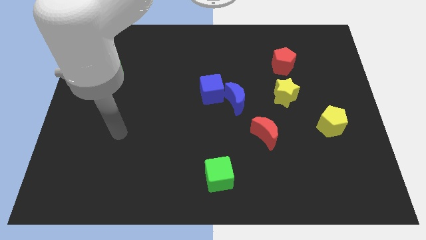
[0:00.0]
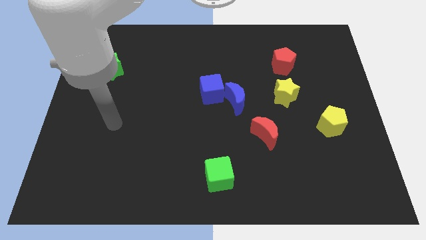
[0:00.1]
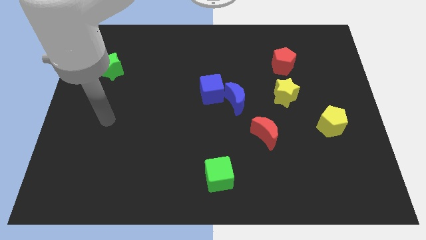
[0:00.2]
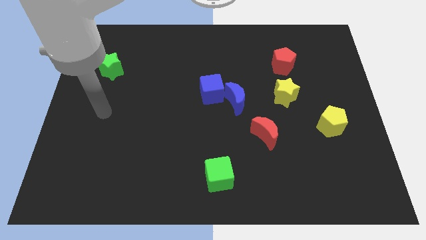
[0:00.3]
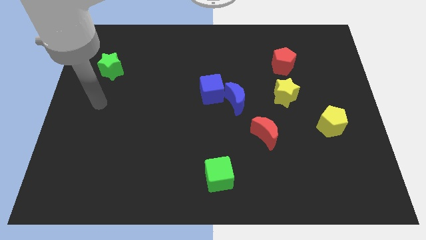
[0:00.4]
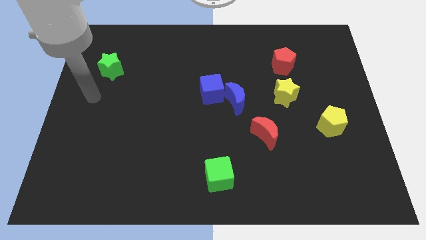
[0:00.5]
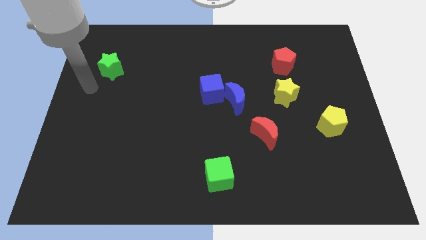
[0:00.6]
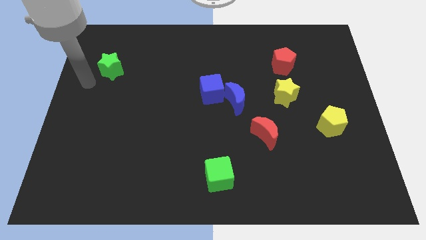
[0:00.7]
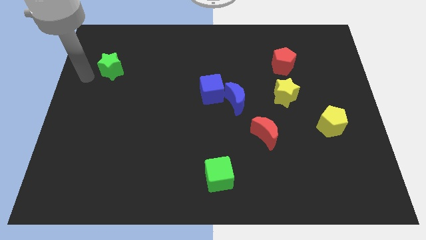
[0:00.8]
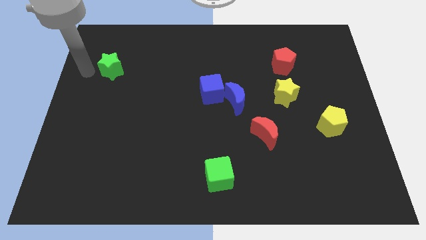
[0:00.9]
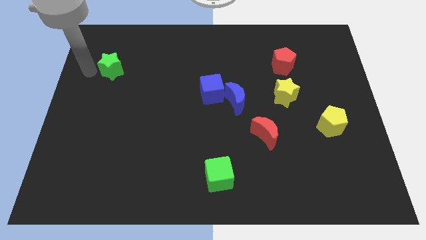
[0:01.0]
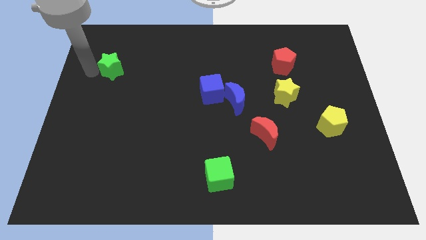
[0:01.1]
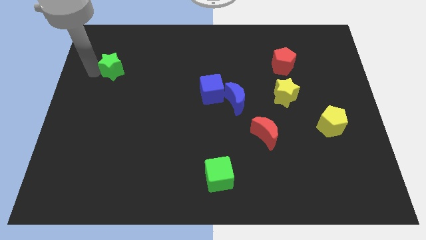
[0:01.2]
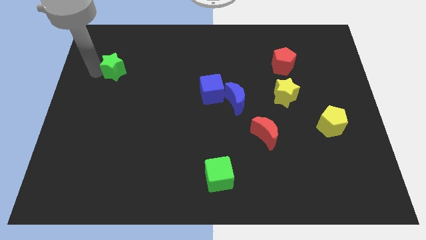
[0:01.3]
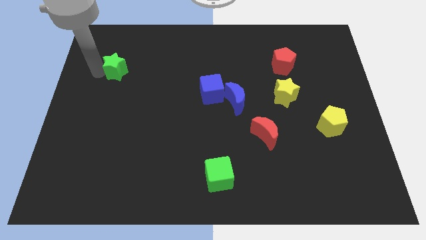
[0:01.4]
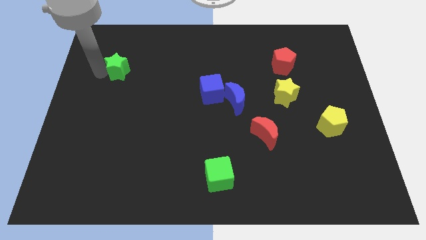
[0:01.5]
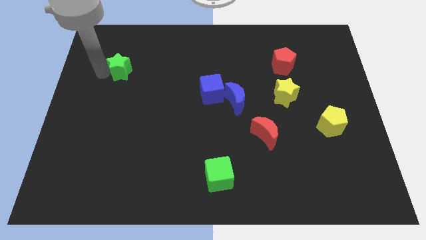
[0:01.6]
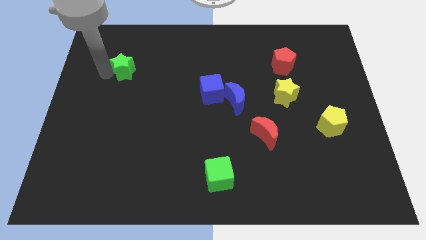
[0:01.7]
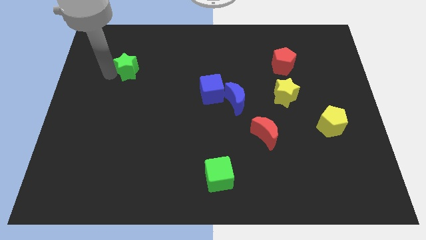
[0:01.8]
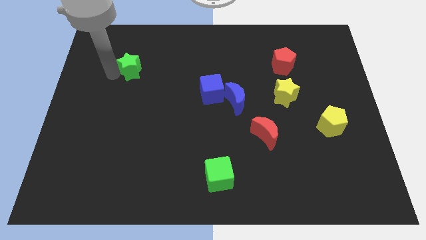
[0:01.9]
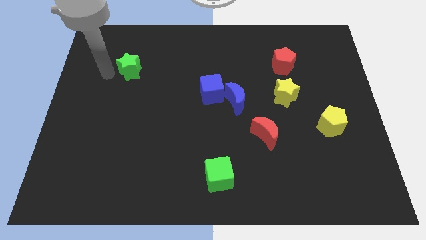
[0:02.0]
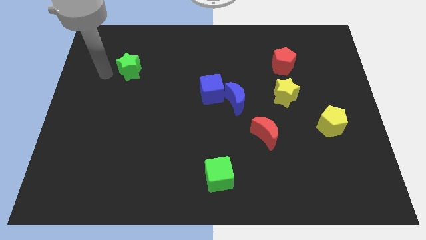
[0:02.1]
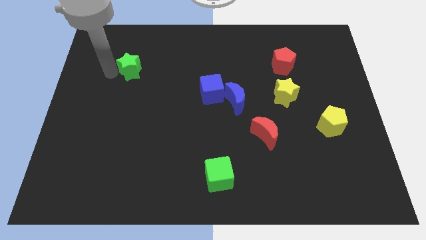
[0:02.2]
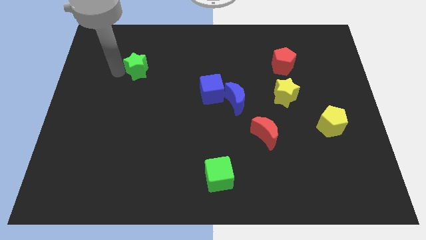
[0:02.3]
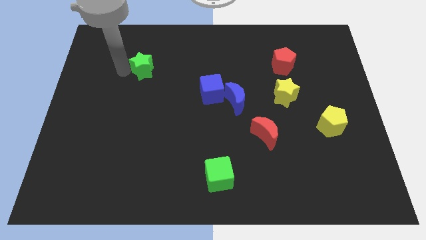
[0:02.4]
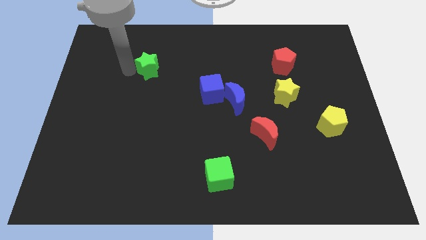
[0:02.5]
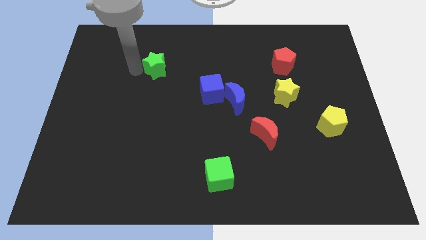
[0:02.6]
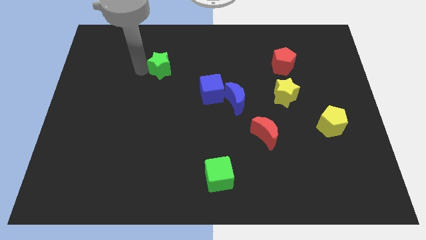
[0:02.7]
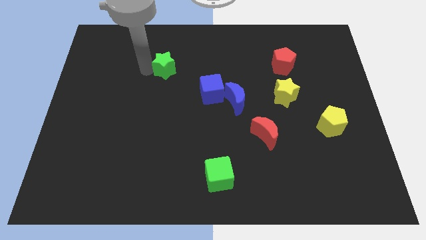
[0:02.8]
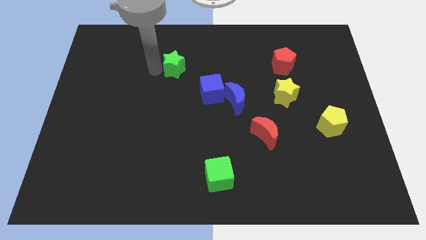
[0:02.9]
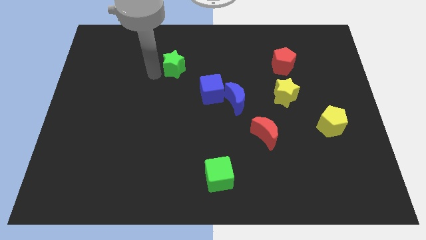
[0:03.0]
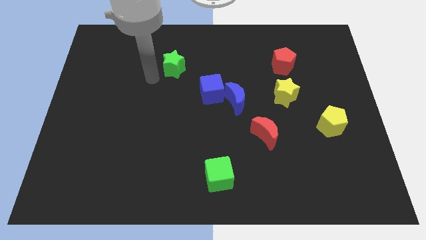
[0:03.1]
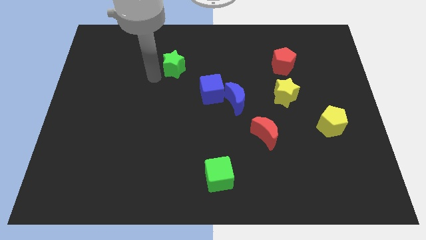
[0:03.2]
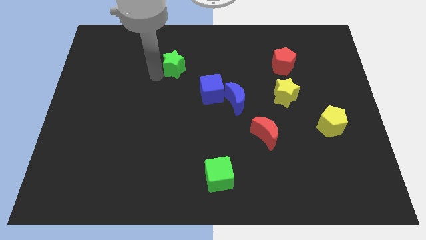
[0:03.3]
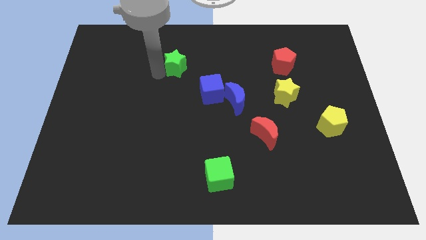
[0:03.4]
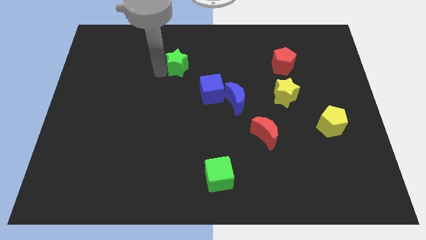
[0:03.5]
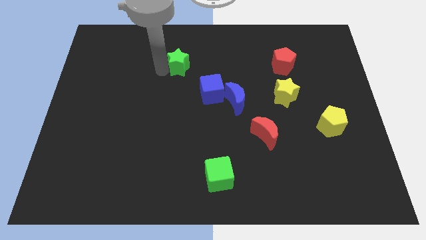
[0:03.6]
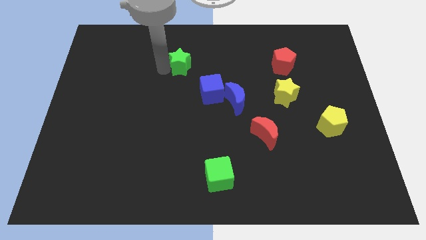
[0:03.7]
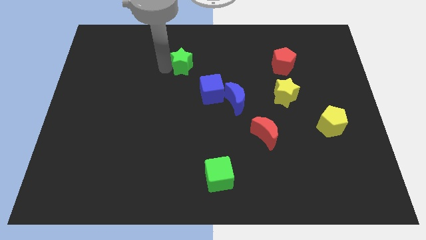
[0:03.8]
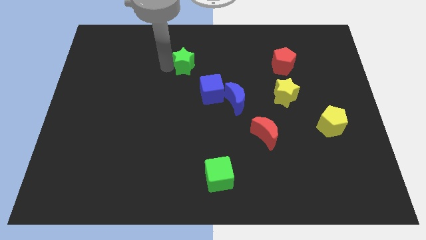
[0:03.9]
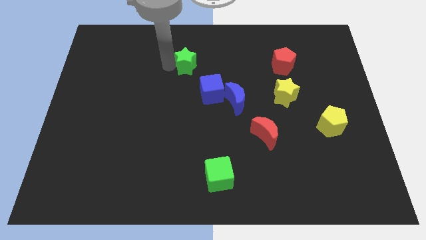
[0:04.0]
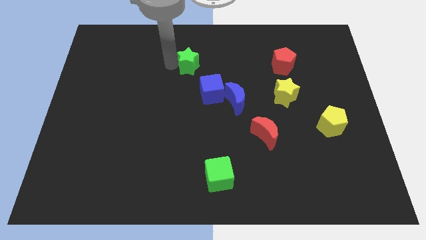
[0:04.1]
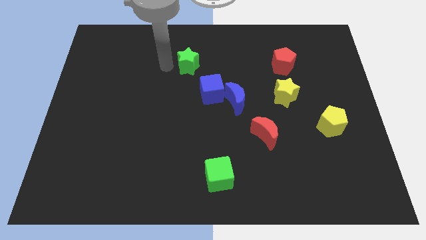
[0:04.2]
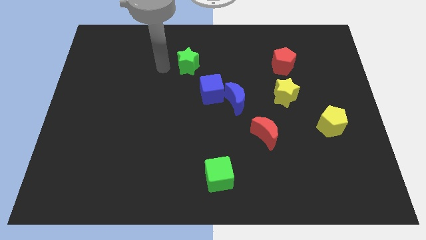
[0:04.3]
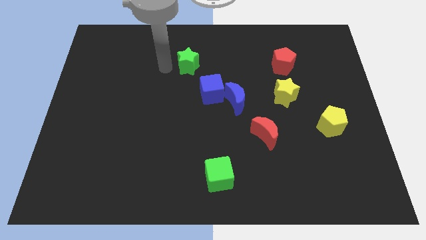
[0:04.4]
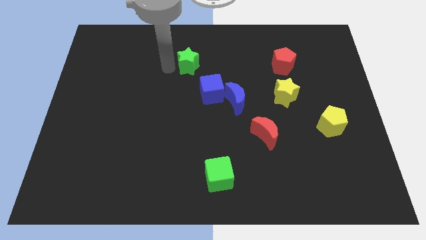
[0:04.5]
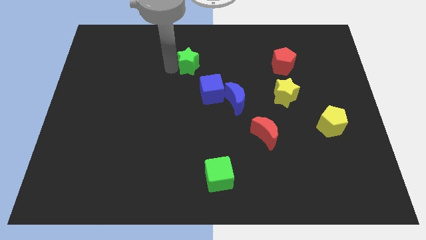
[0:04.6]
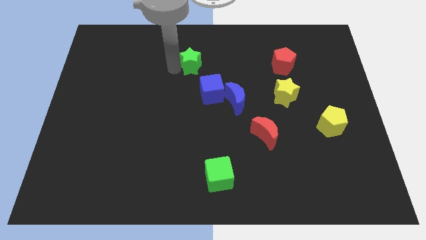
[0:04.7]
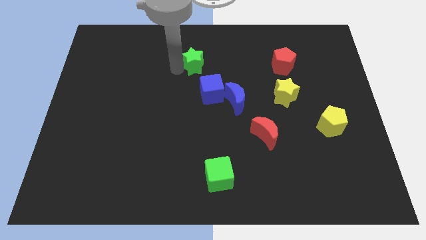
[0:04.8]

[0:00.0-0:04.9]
push the green star above the blue cube

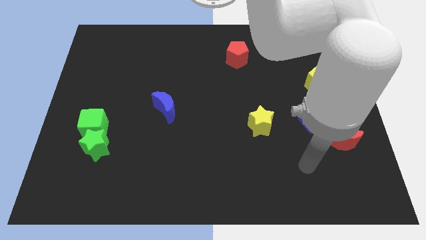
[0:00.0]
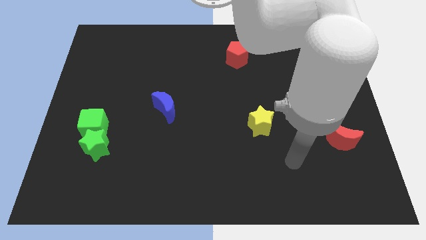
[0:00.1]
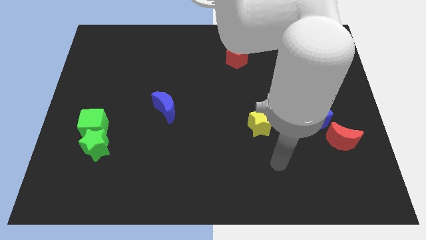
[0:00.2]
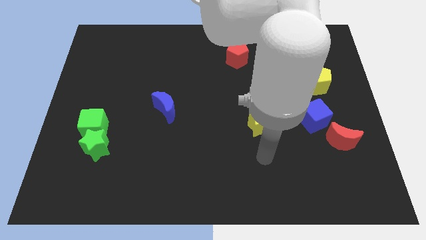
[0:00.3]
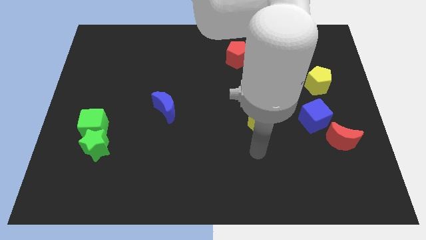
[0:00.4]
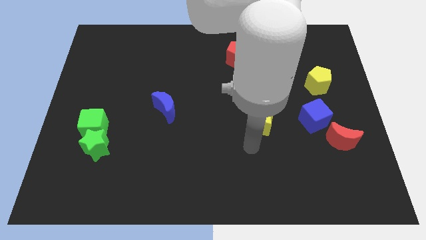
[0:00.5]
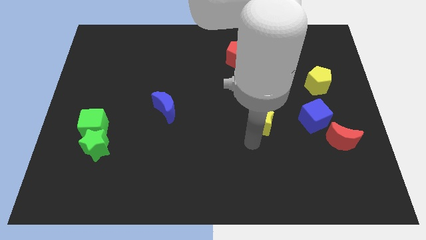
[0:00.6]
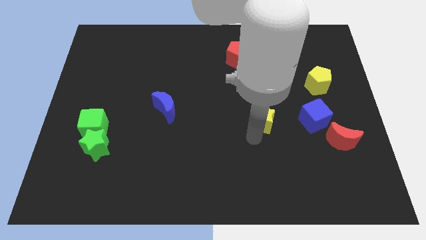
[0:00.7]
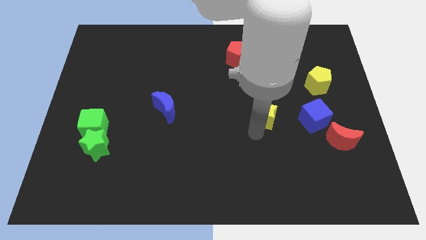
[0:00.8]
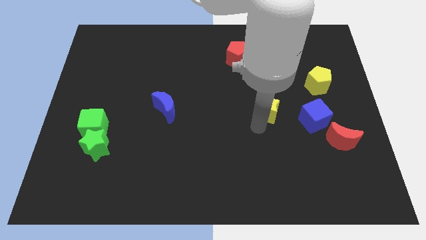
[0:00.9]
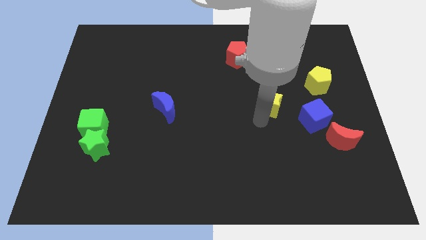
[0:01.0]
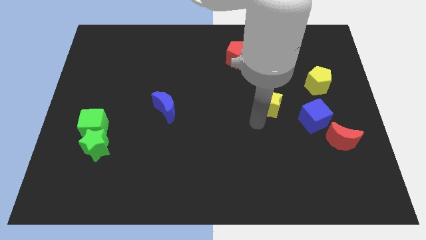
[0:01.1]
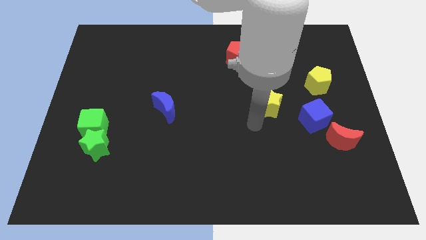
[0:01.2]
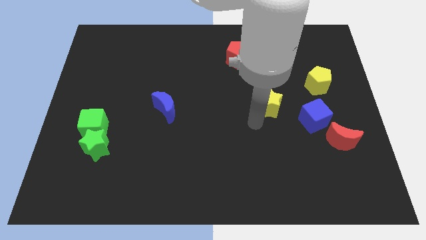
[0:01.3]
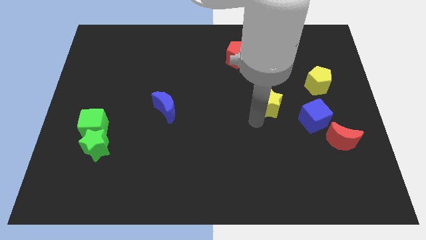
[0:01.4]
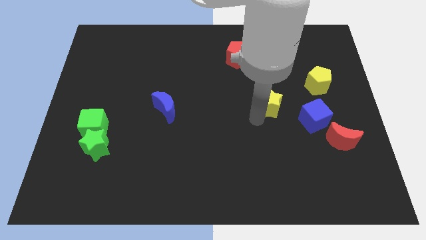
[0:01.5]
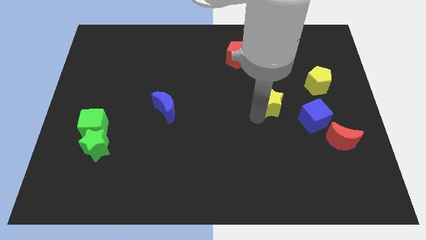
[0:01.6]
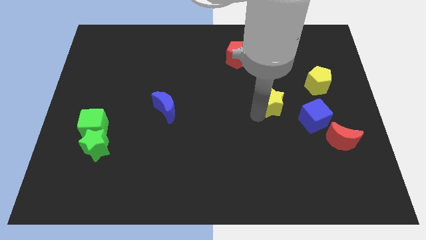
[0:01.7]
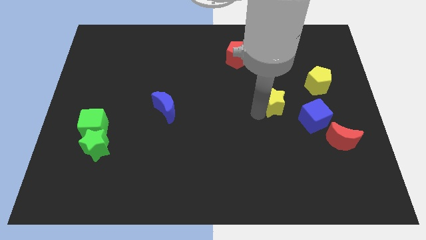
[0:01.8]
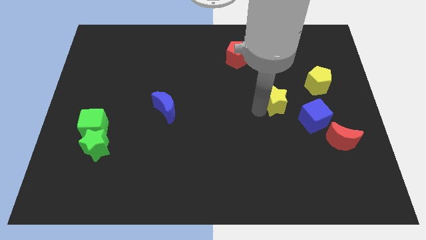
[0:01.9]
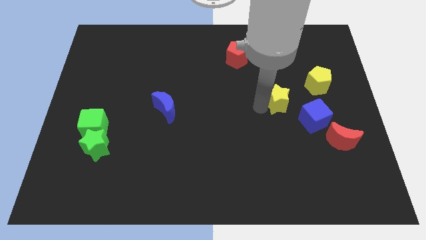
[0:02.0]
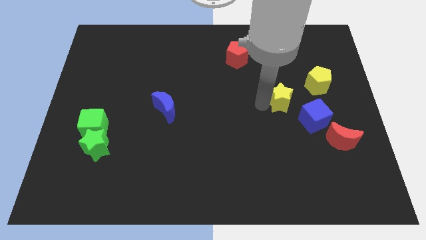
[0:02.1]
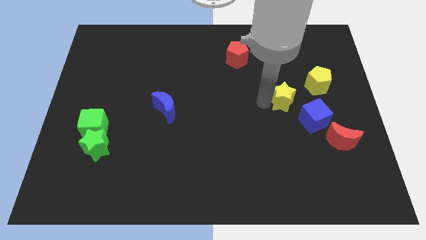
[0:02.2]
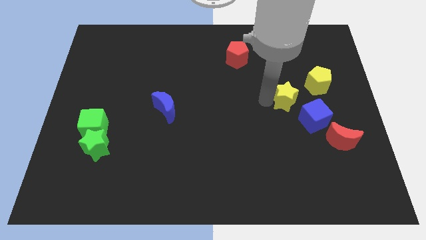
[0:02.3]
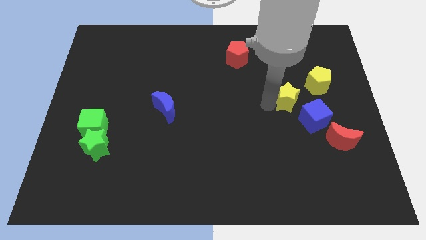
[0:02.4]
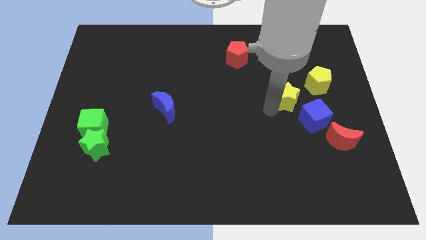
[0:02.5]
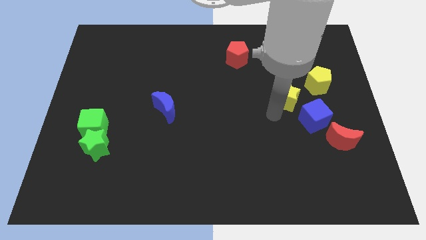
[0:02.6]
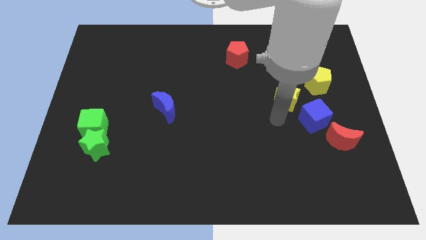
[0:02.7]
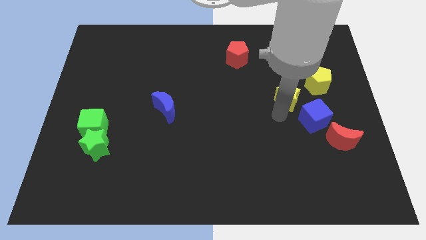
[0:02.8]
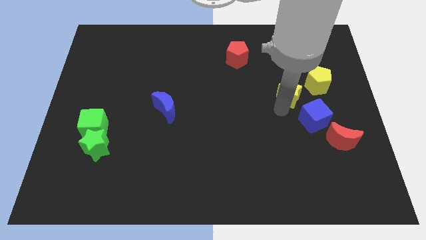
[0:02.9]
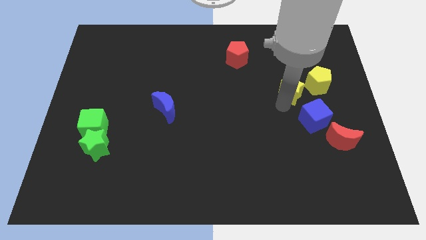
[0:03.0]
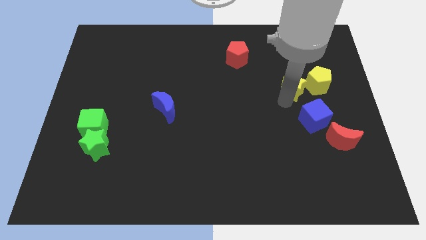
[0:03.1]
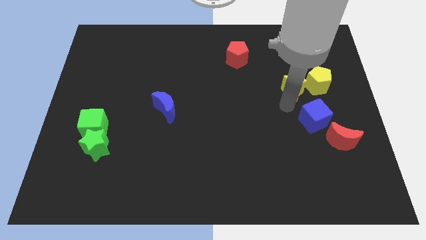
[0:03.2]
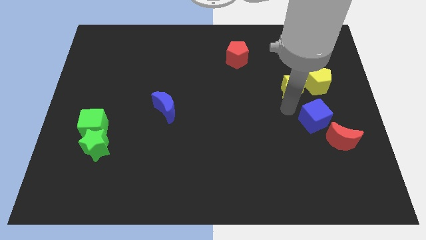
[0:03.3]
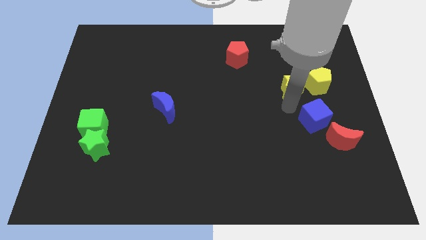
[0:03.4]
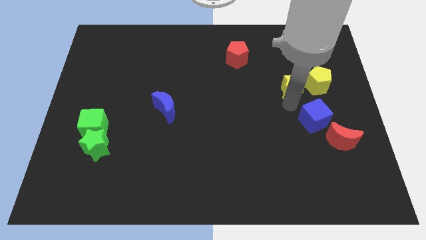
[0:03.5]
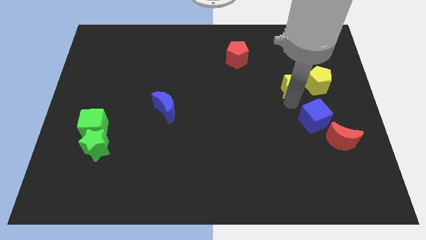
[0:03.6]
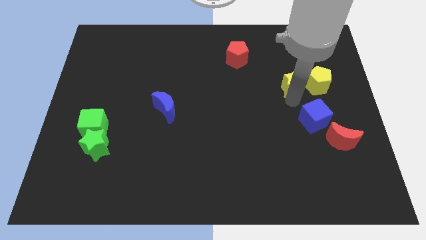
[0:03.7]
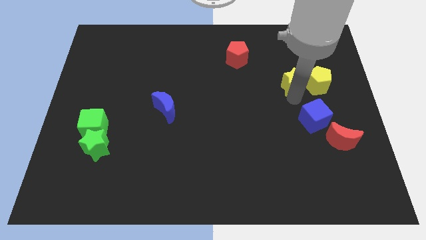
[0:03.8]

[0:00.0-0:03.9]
push the yellow star to the top left of the yellow pentagon
